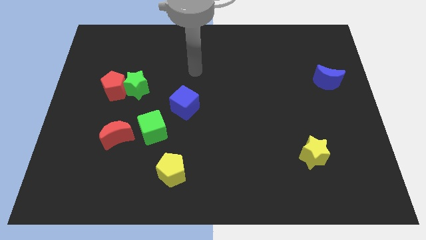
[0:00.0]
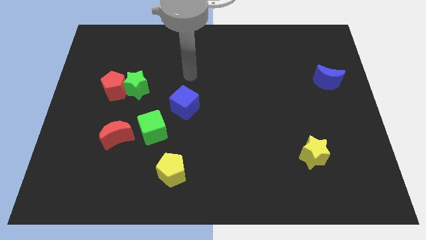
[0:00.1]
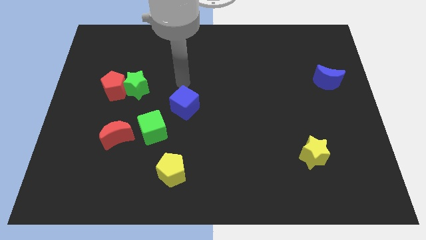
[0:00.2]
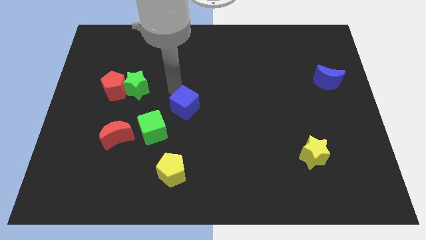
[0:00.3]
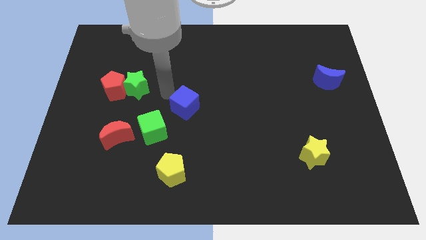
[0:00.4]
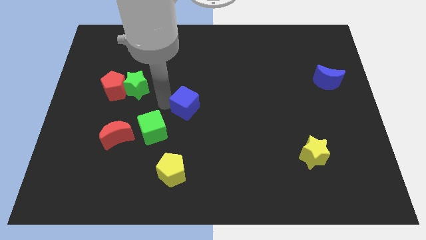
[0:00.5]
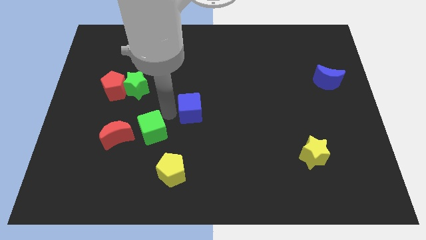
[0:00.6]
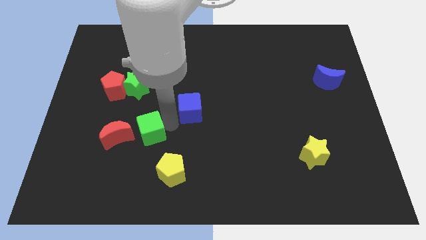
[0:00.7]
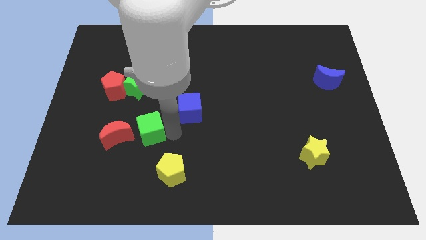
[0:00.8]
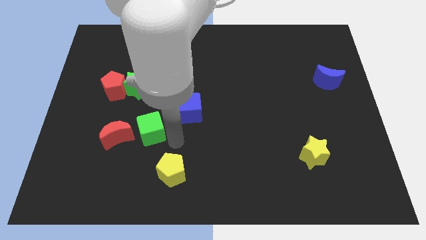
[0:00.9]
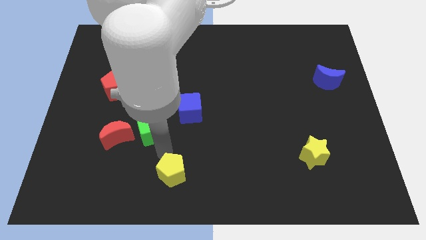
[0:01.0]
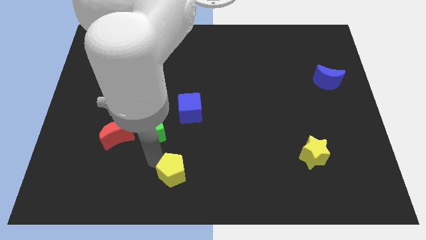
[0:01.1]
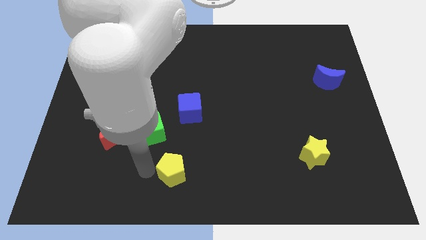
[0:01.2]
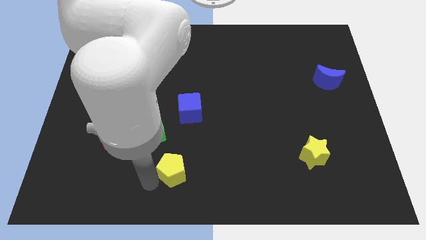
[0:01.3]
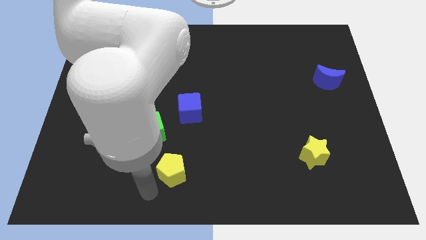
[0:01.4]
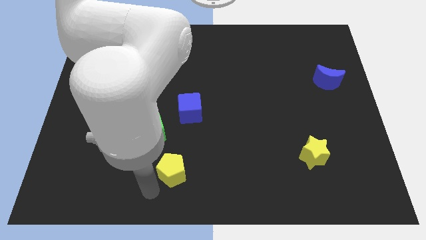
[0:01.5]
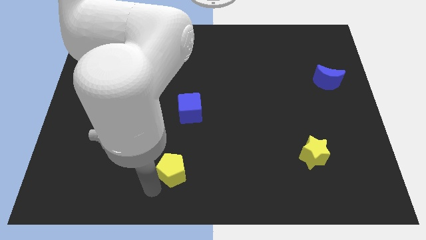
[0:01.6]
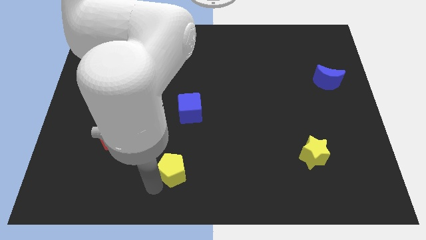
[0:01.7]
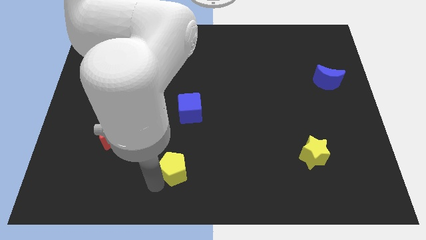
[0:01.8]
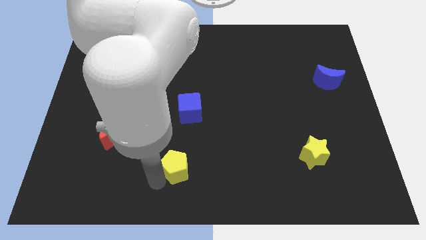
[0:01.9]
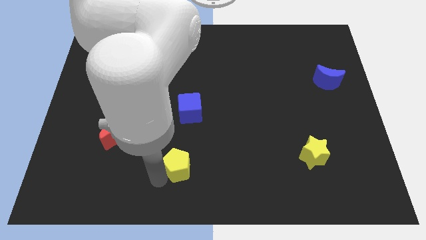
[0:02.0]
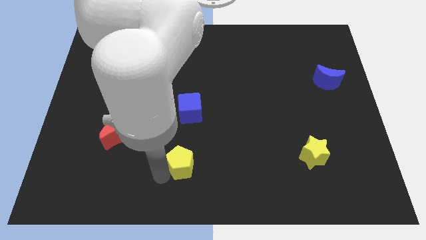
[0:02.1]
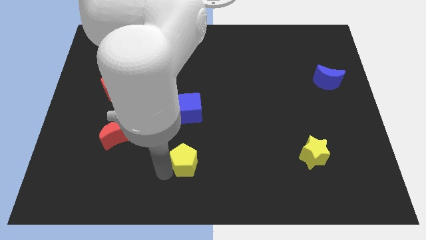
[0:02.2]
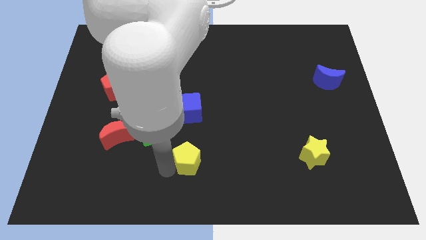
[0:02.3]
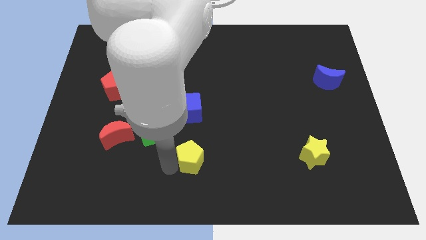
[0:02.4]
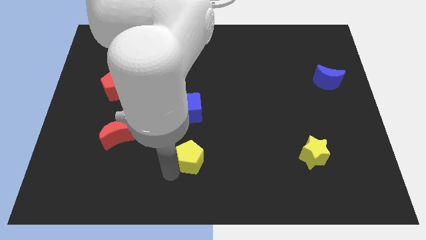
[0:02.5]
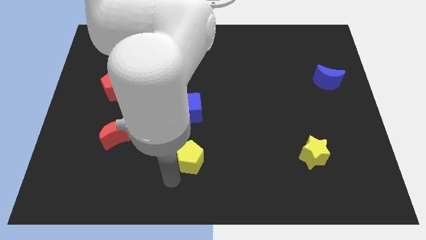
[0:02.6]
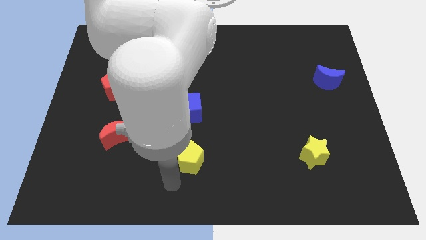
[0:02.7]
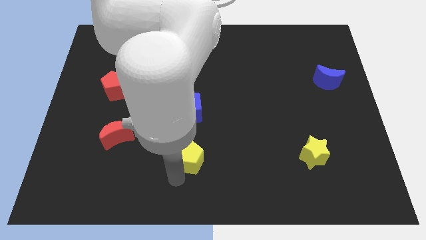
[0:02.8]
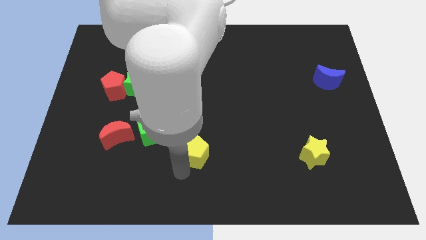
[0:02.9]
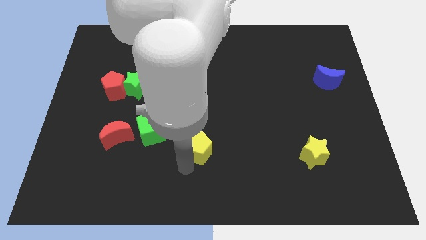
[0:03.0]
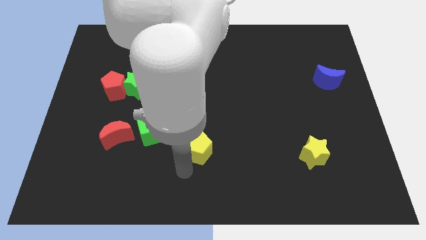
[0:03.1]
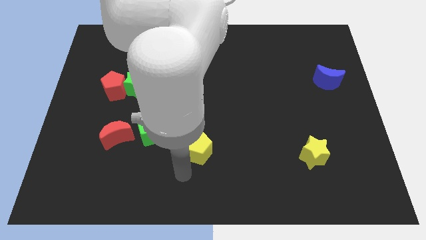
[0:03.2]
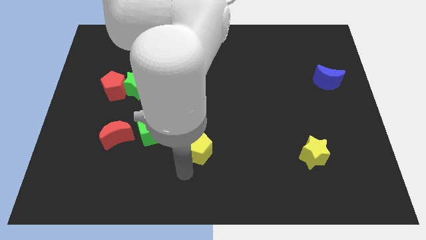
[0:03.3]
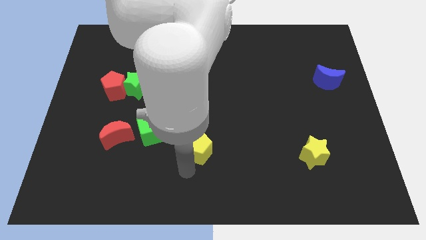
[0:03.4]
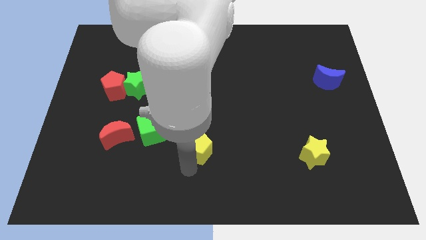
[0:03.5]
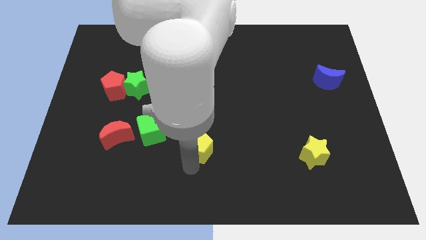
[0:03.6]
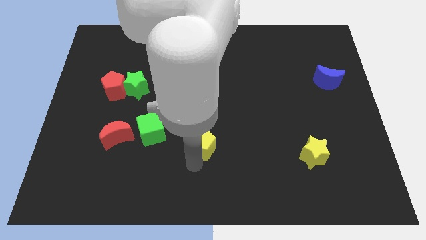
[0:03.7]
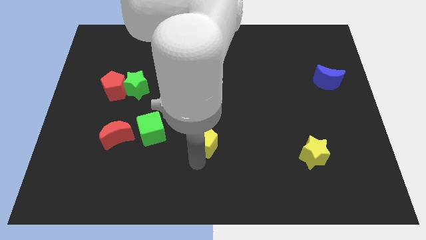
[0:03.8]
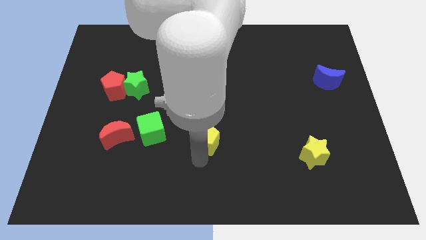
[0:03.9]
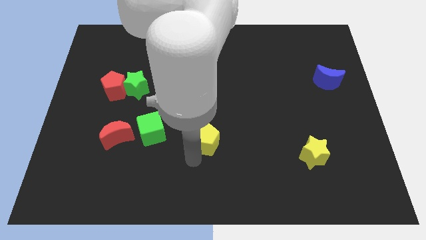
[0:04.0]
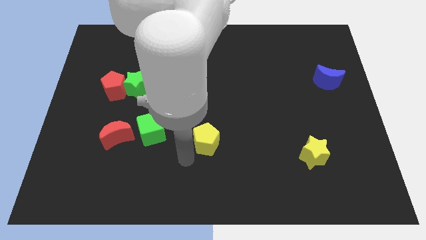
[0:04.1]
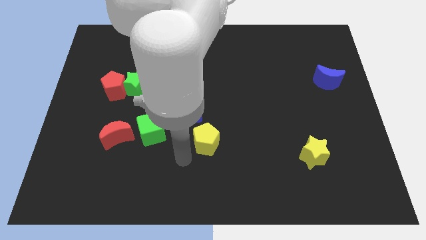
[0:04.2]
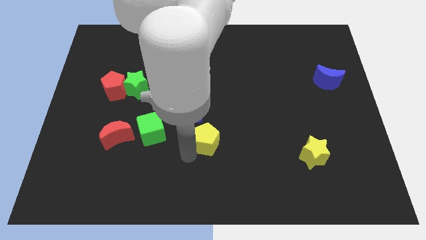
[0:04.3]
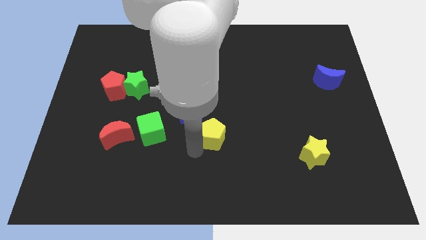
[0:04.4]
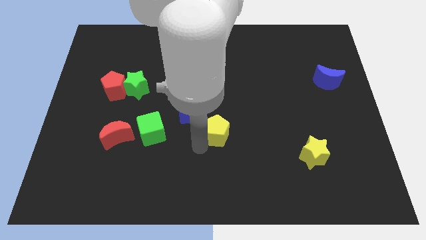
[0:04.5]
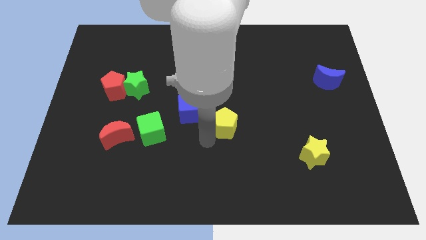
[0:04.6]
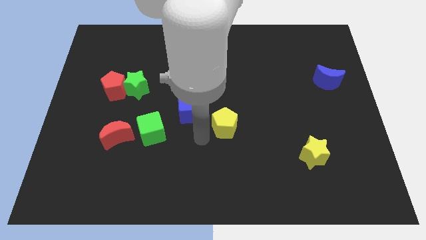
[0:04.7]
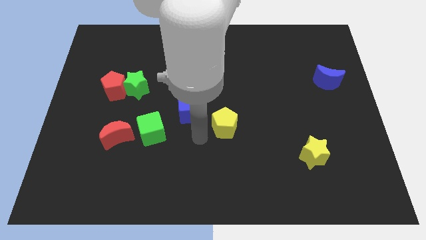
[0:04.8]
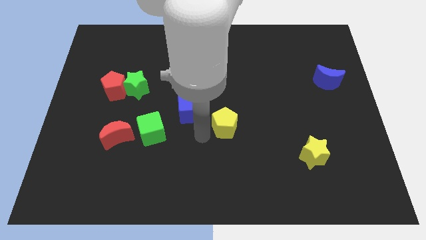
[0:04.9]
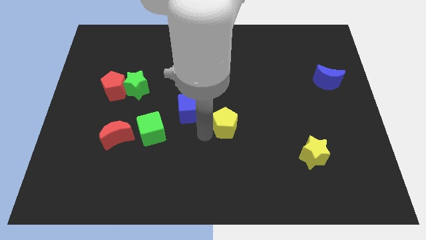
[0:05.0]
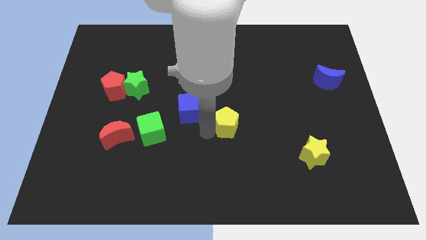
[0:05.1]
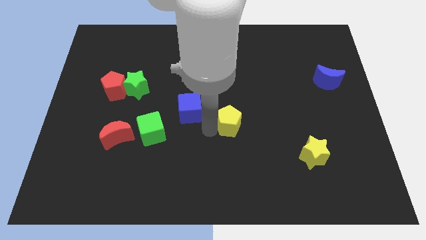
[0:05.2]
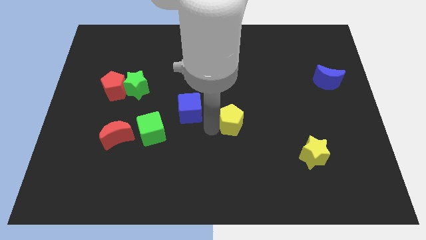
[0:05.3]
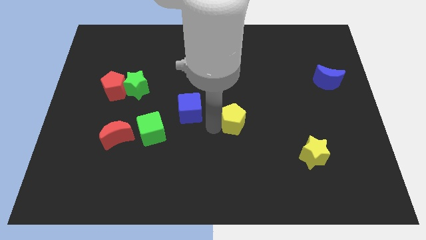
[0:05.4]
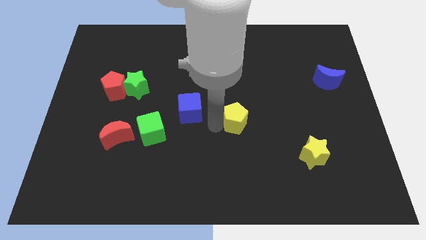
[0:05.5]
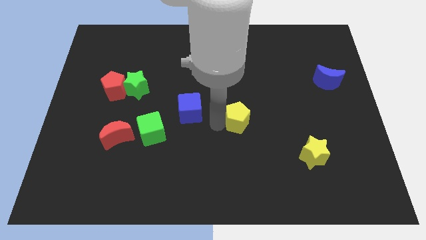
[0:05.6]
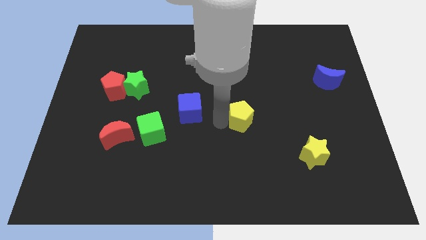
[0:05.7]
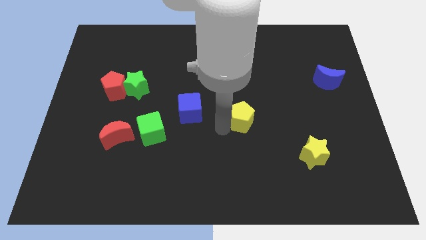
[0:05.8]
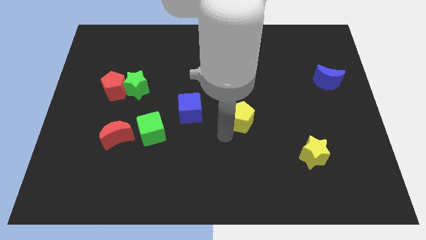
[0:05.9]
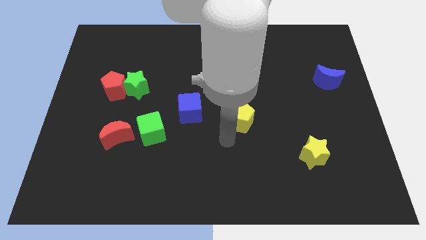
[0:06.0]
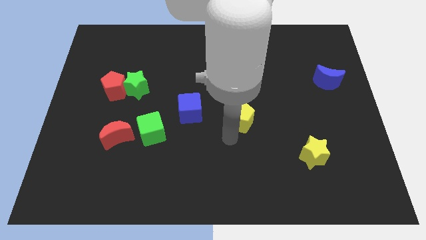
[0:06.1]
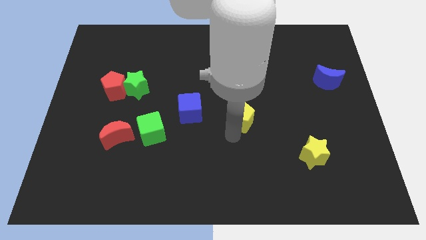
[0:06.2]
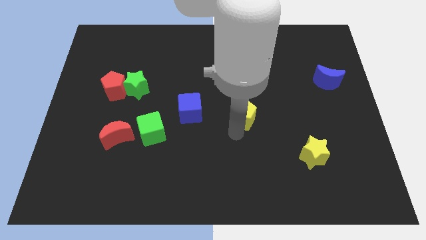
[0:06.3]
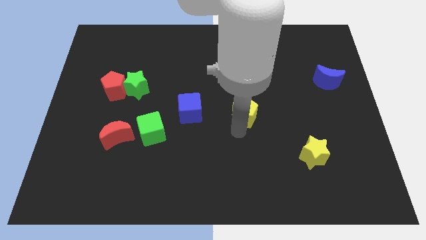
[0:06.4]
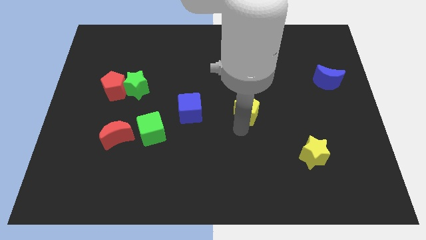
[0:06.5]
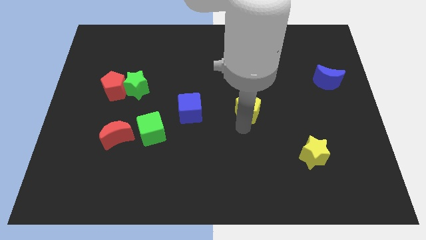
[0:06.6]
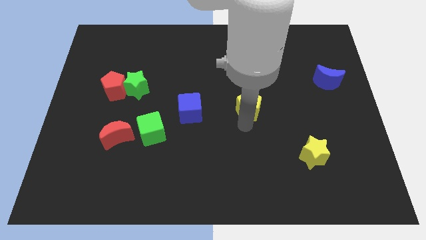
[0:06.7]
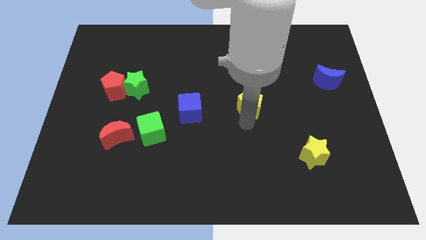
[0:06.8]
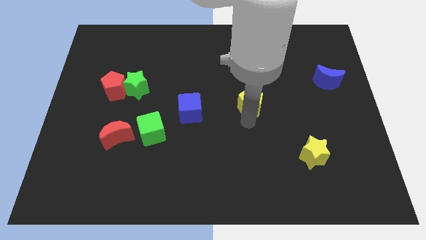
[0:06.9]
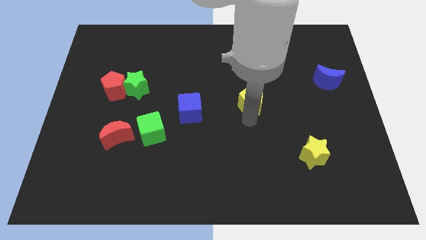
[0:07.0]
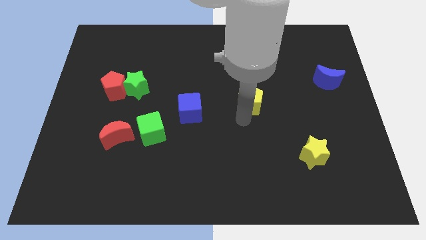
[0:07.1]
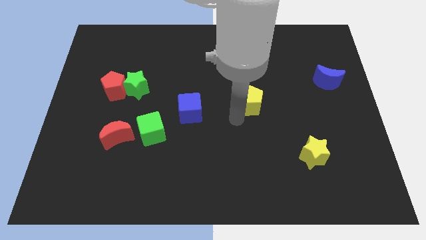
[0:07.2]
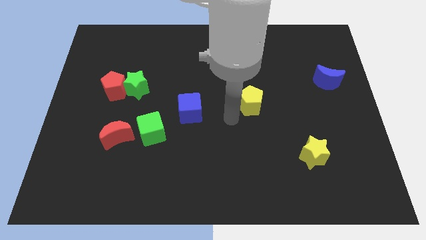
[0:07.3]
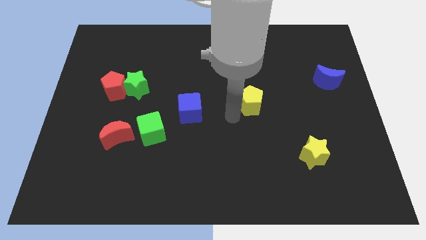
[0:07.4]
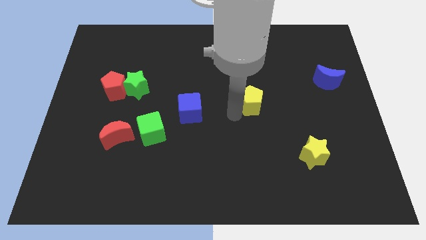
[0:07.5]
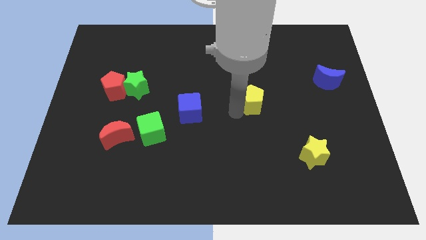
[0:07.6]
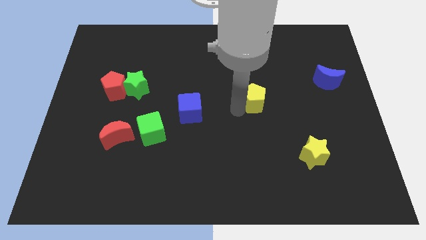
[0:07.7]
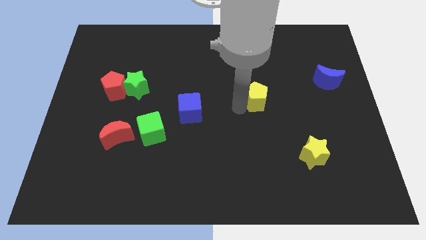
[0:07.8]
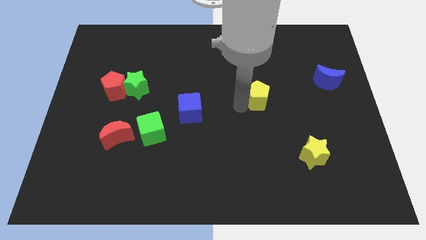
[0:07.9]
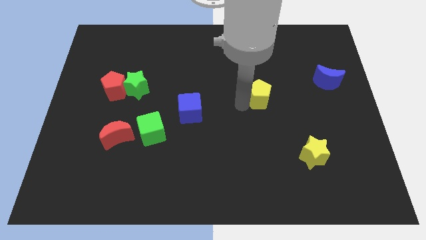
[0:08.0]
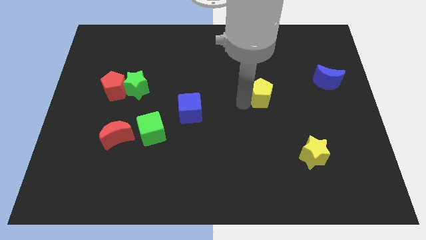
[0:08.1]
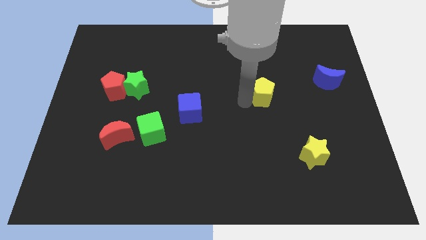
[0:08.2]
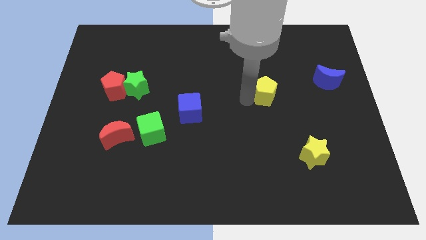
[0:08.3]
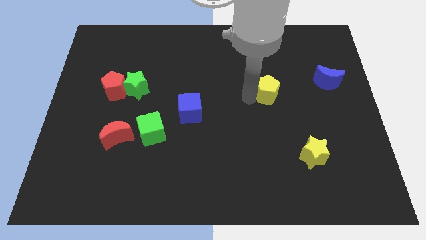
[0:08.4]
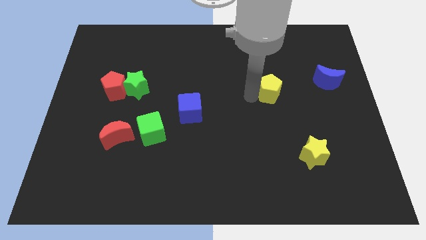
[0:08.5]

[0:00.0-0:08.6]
slide the yellow pentagon left of the blue moon
